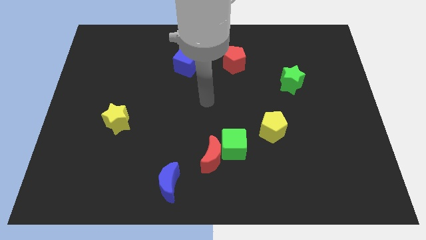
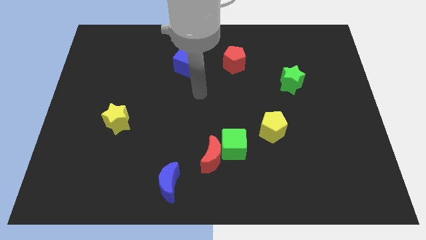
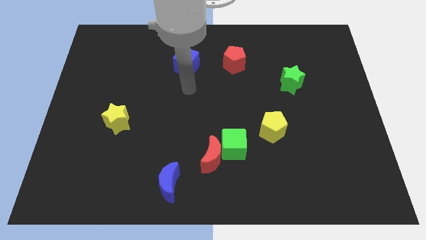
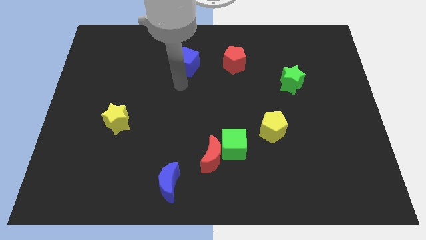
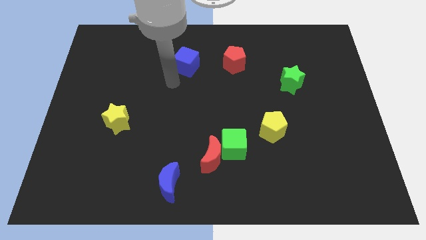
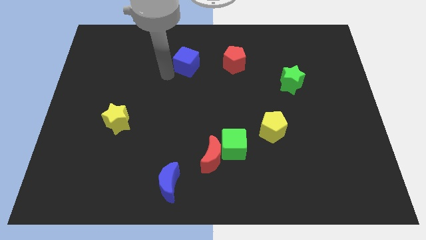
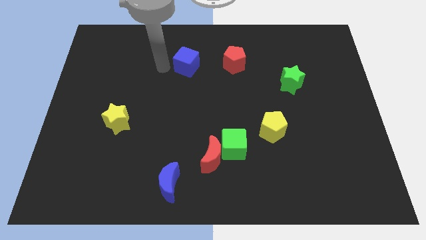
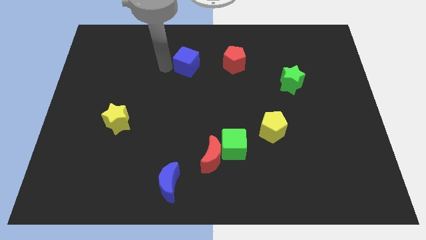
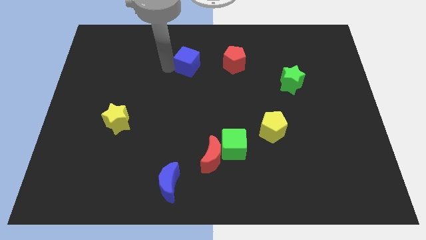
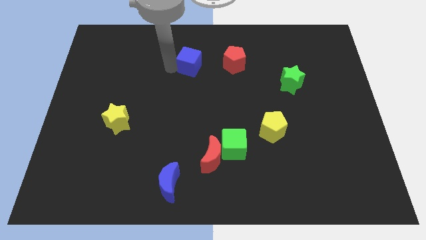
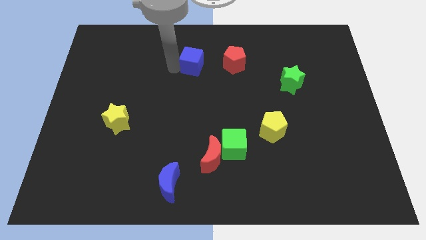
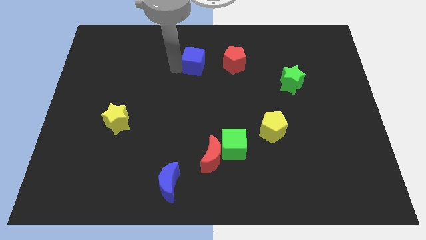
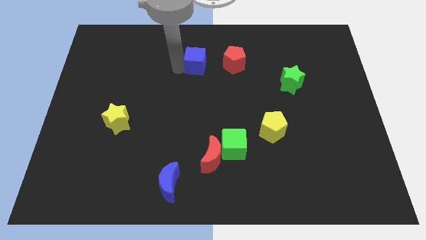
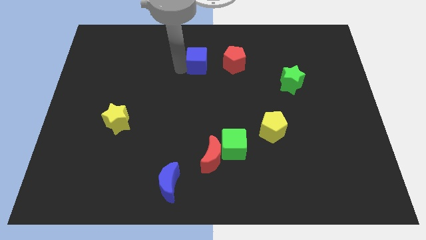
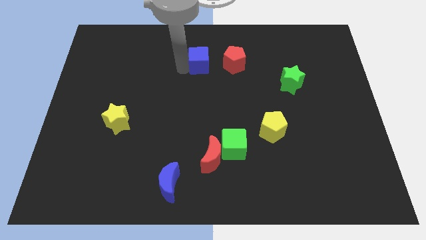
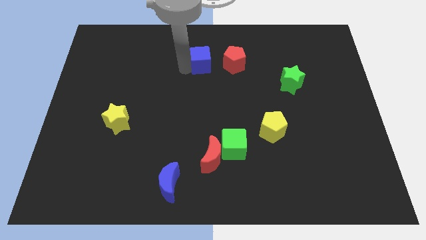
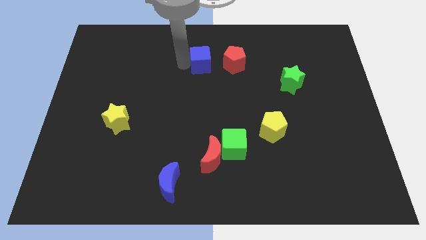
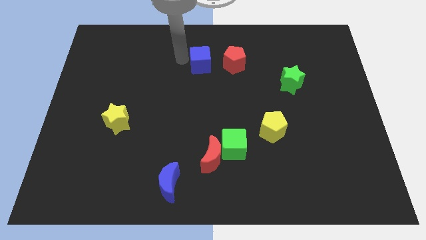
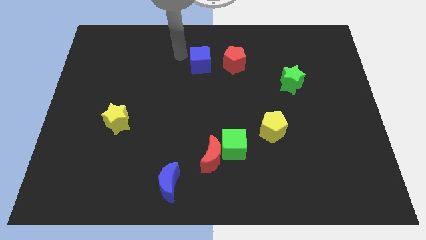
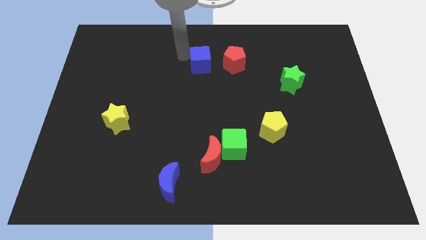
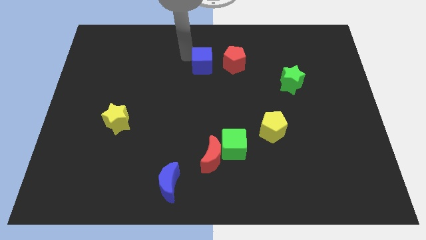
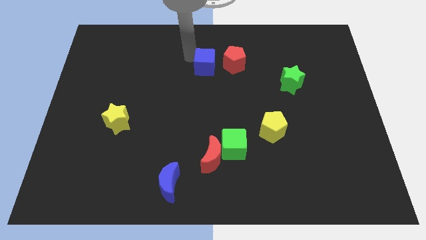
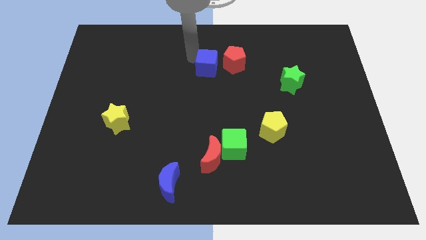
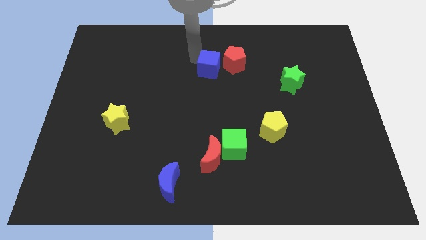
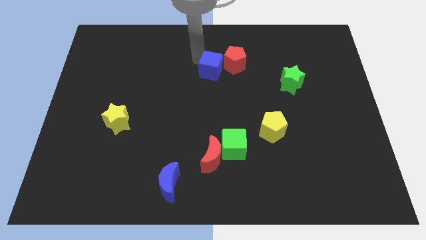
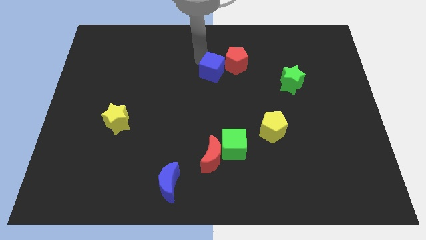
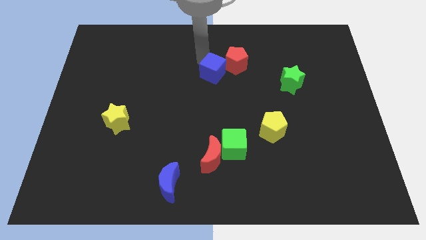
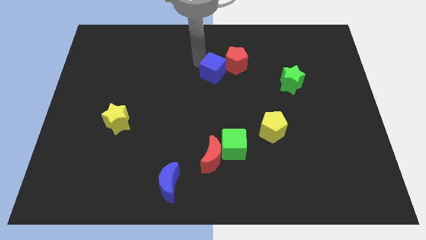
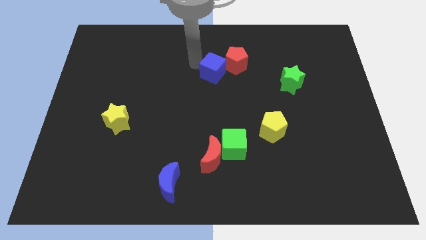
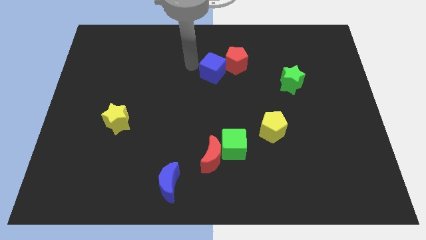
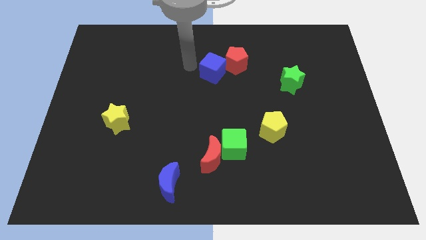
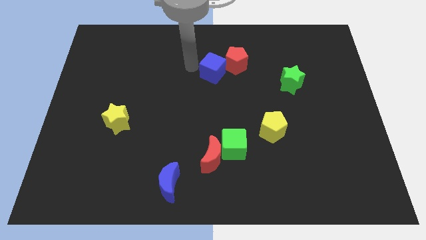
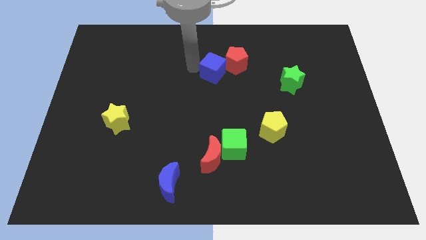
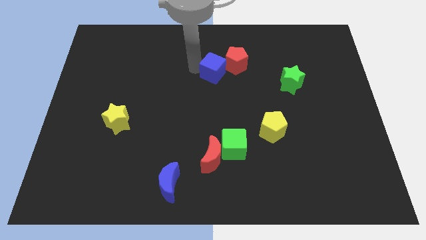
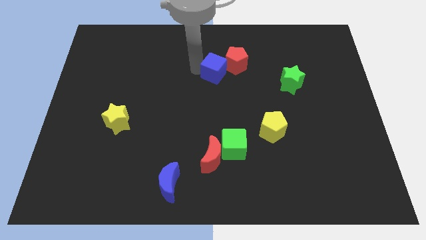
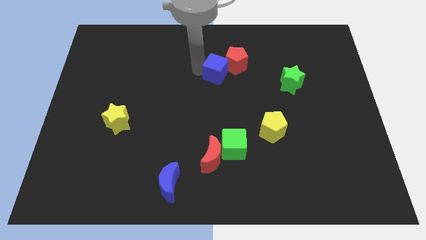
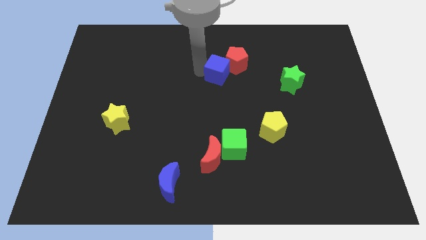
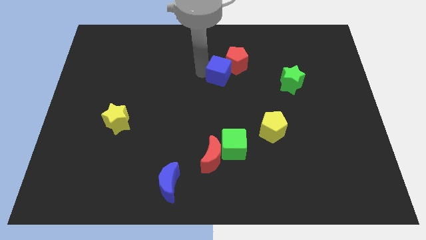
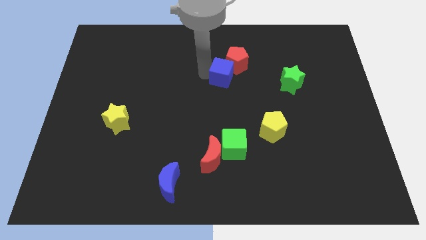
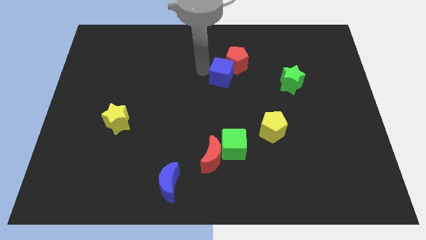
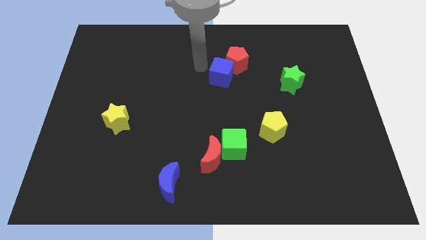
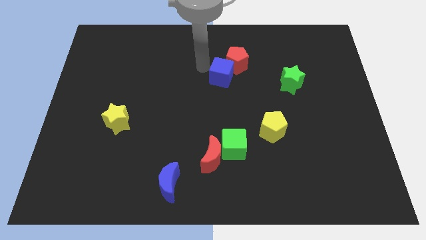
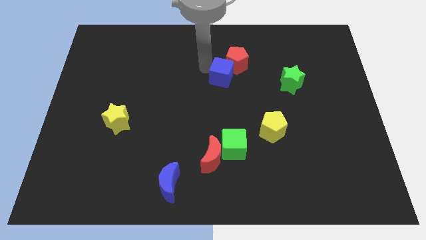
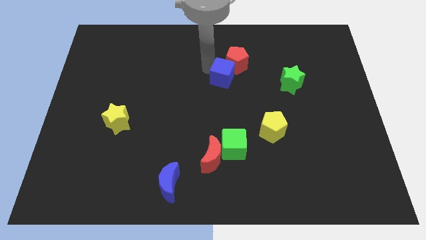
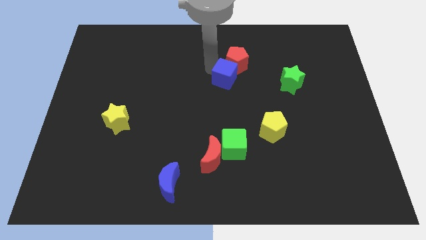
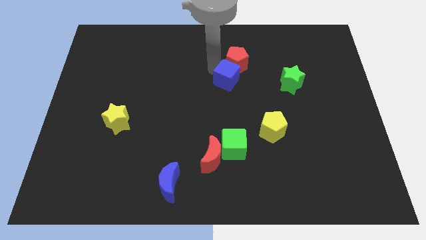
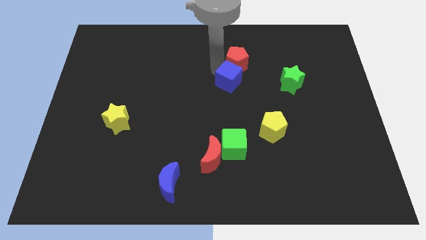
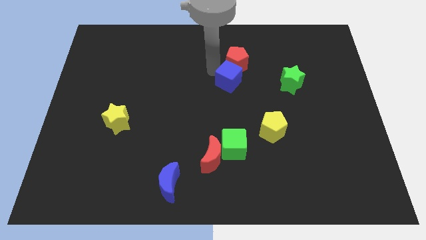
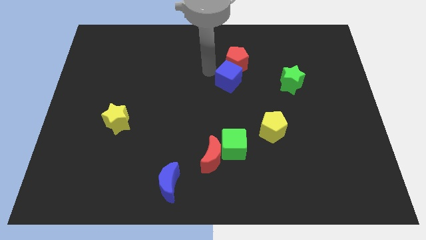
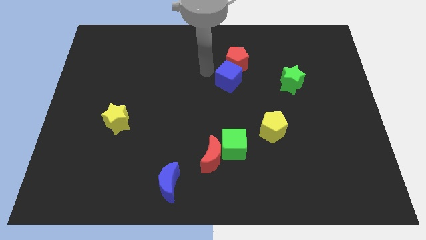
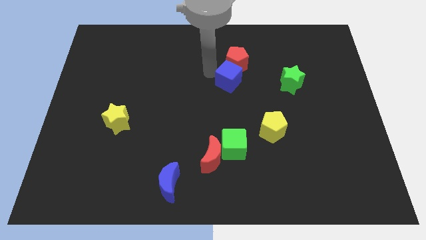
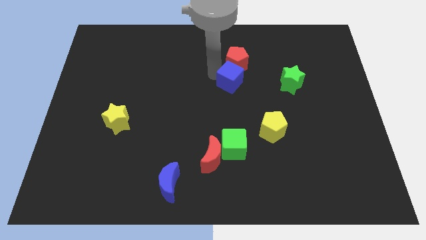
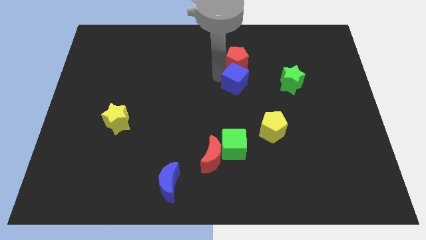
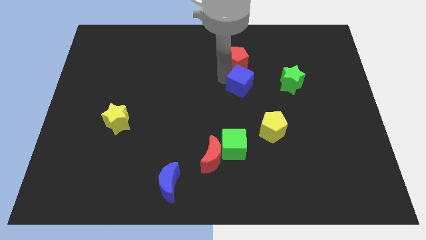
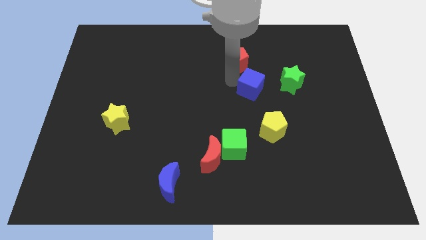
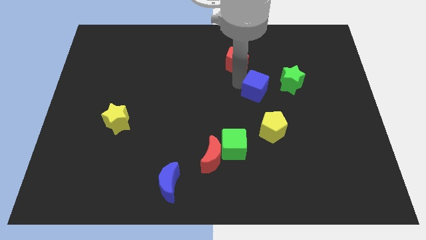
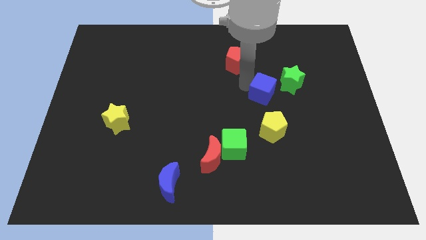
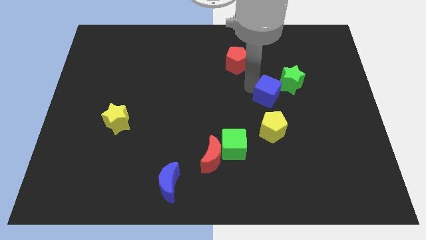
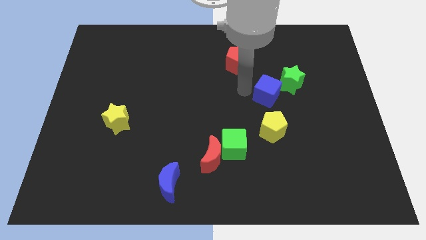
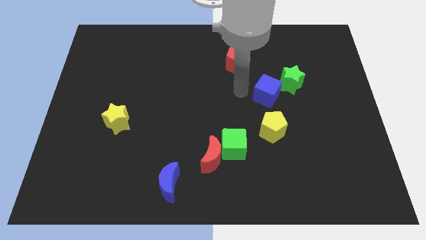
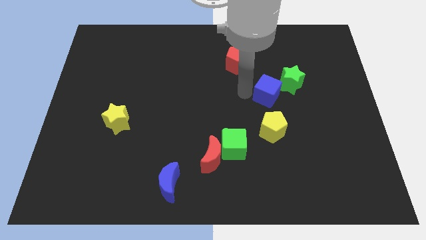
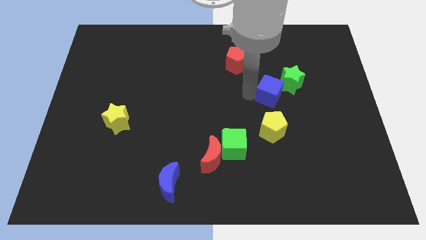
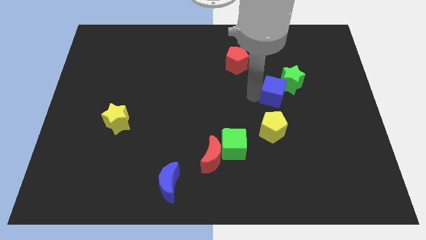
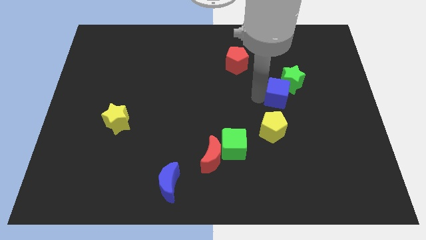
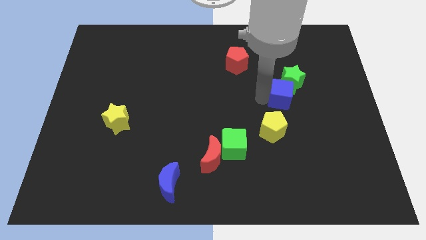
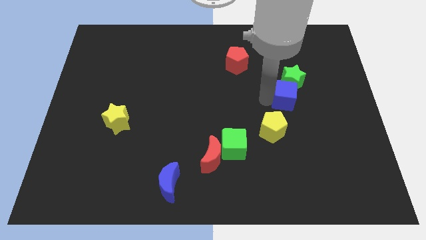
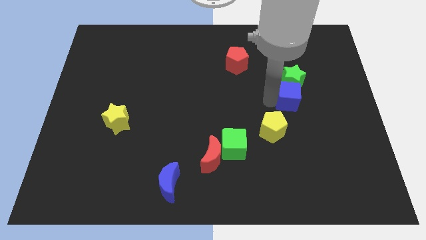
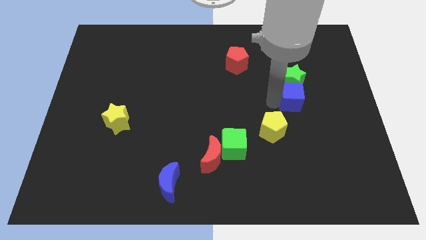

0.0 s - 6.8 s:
slide the blue cube to the bottom right side of the green star
